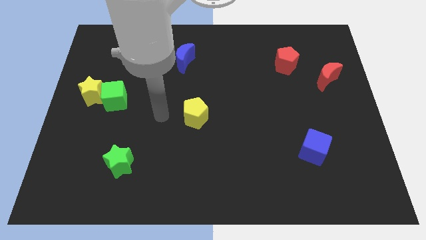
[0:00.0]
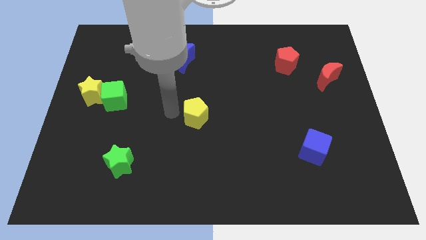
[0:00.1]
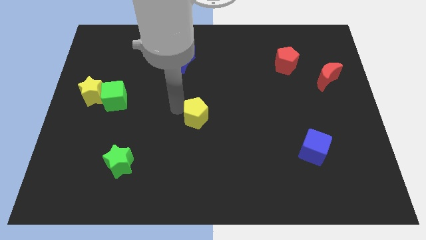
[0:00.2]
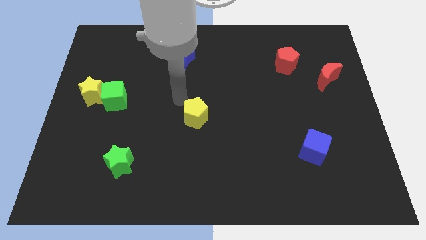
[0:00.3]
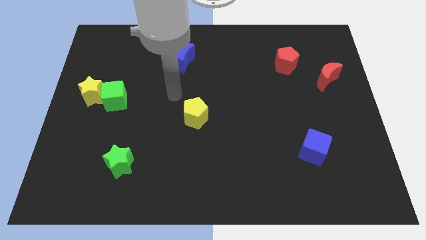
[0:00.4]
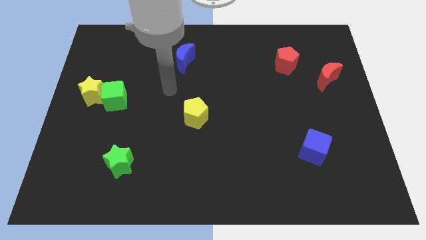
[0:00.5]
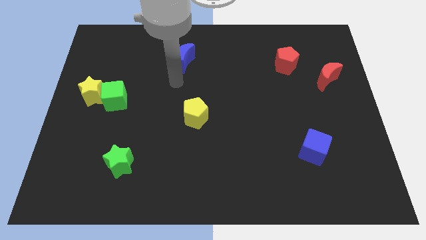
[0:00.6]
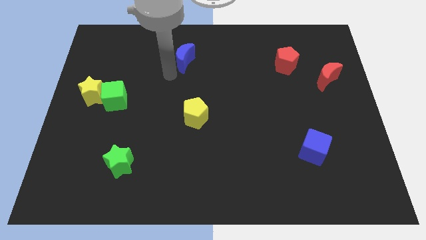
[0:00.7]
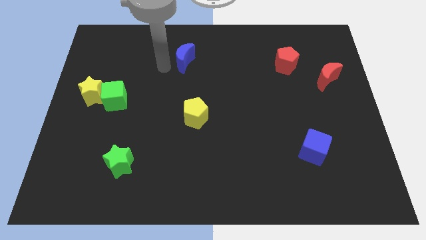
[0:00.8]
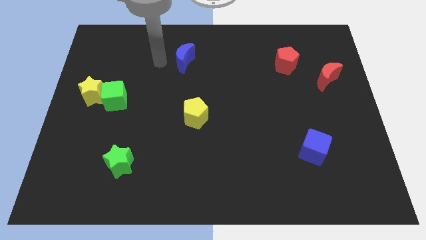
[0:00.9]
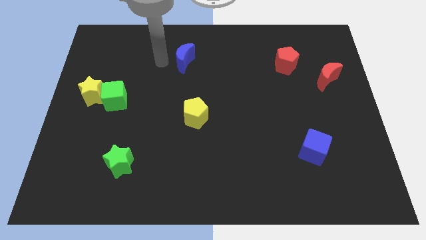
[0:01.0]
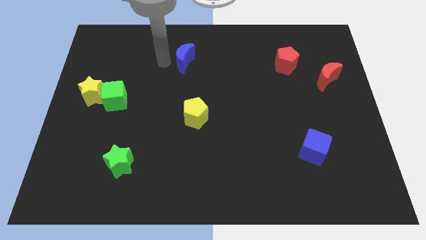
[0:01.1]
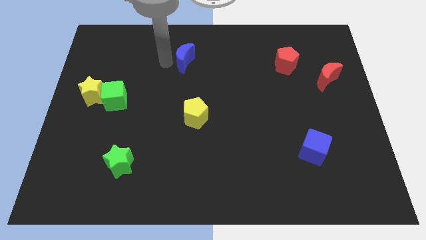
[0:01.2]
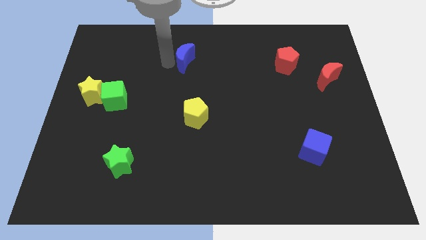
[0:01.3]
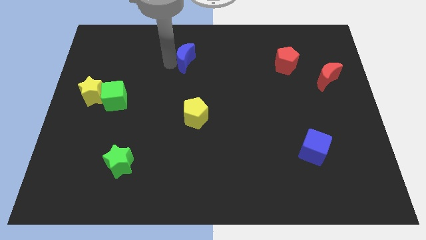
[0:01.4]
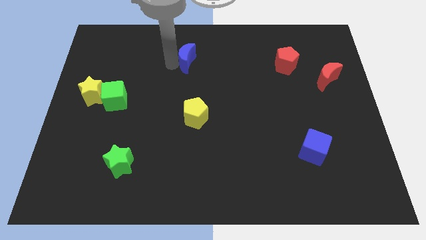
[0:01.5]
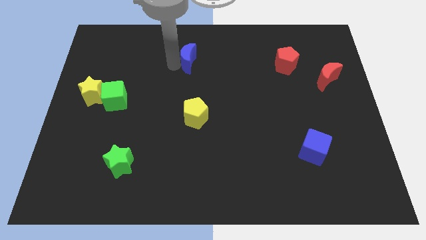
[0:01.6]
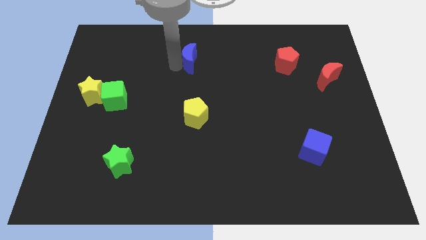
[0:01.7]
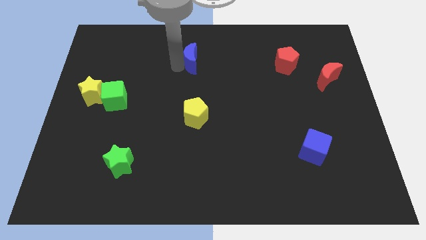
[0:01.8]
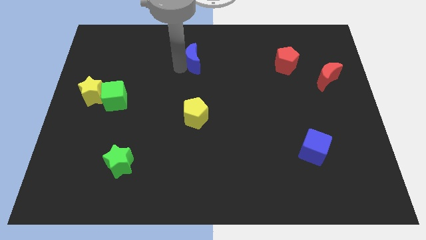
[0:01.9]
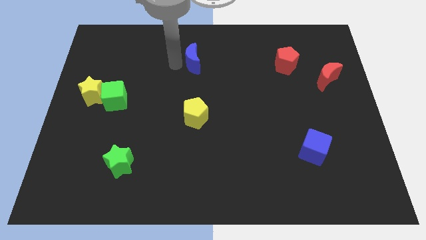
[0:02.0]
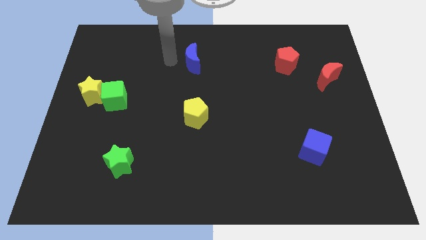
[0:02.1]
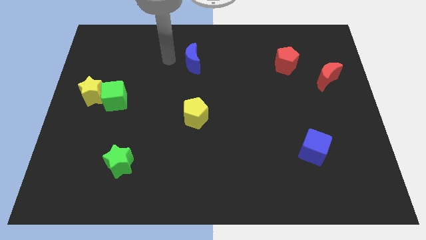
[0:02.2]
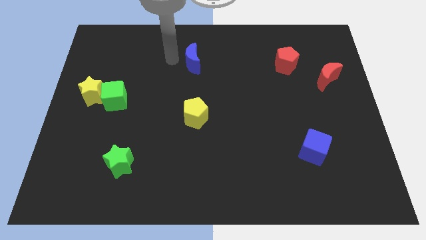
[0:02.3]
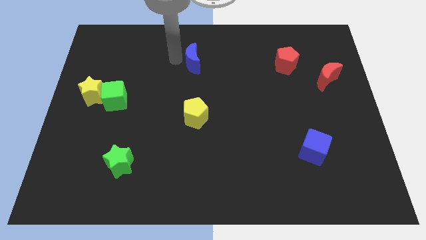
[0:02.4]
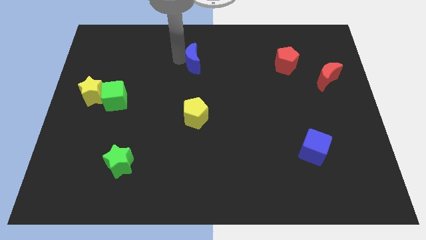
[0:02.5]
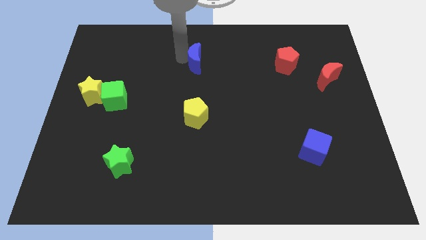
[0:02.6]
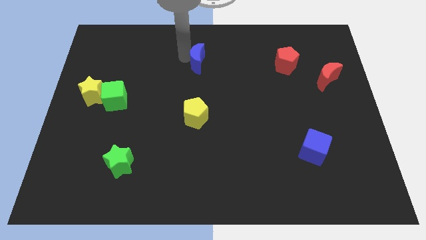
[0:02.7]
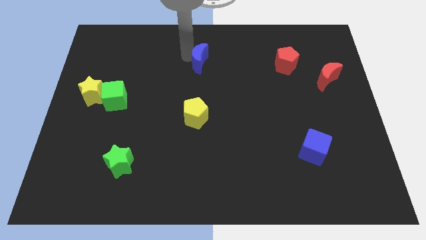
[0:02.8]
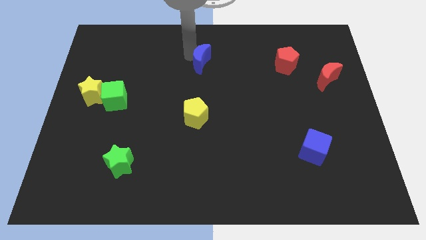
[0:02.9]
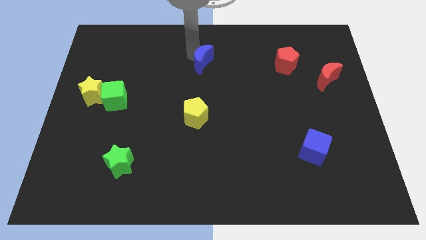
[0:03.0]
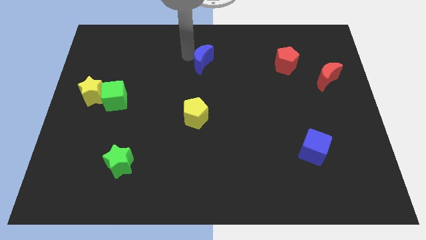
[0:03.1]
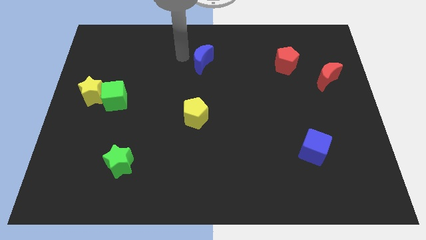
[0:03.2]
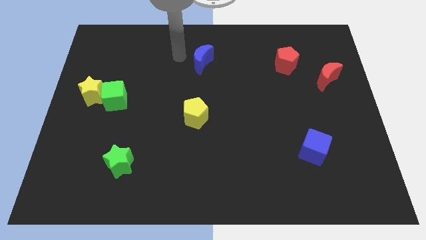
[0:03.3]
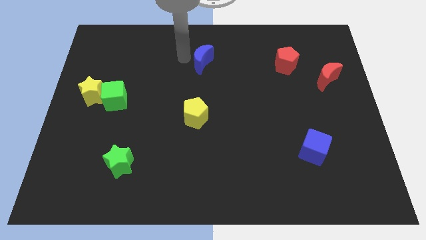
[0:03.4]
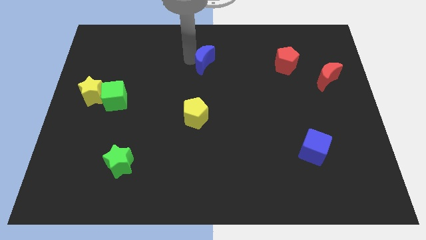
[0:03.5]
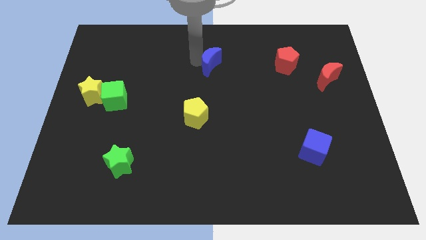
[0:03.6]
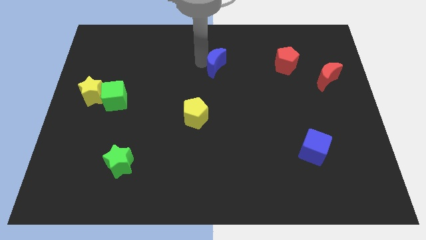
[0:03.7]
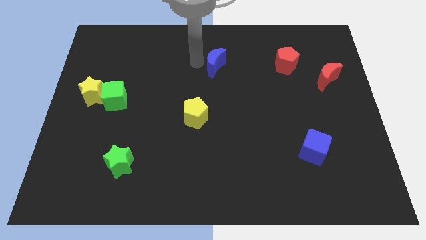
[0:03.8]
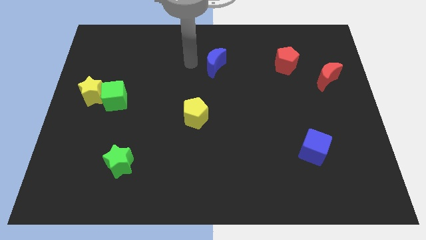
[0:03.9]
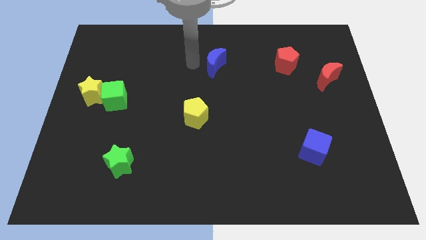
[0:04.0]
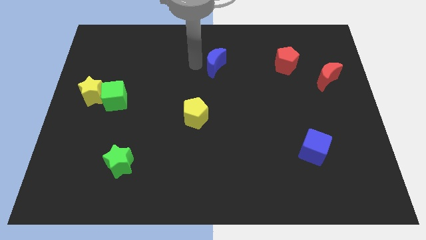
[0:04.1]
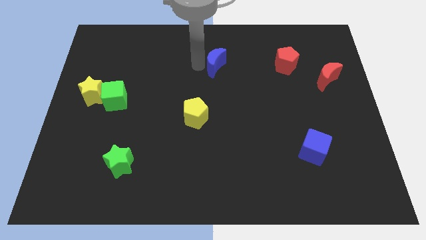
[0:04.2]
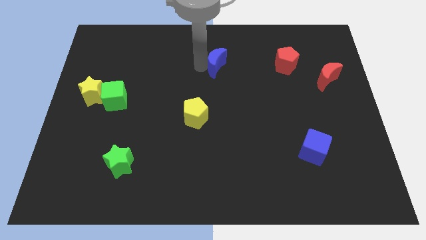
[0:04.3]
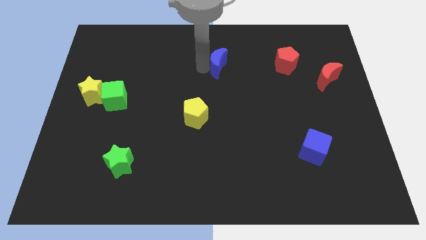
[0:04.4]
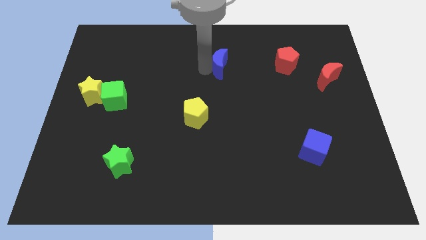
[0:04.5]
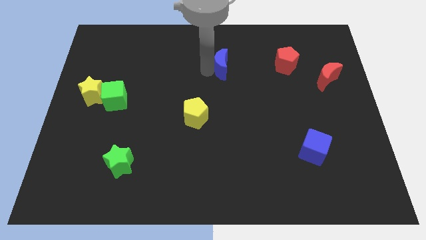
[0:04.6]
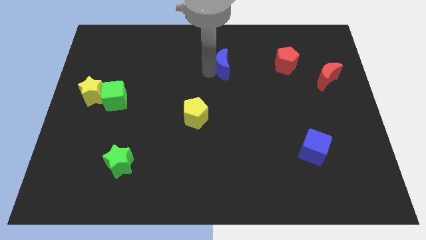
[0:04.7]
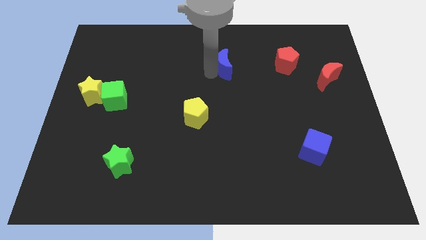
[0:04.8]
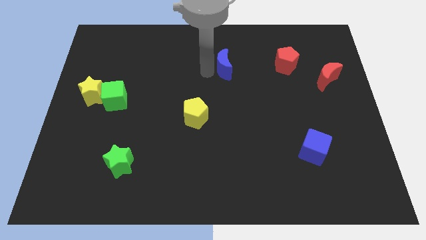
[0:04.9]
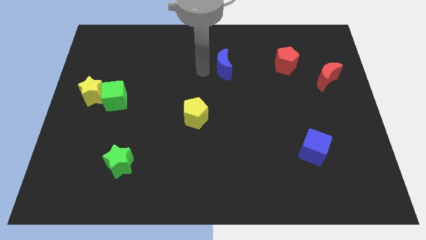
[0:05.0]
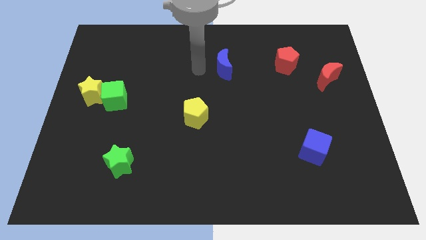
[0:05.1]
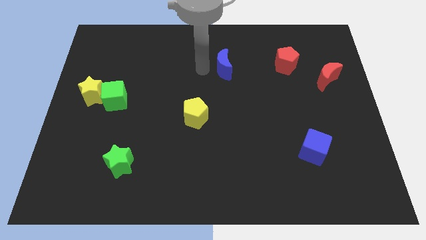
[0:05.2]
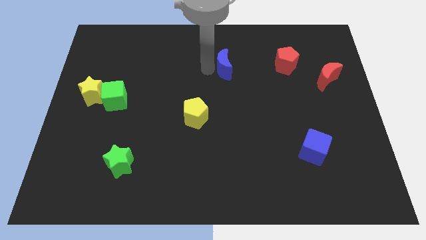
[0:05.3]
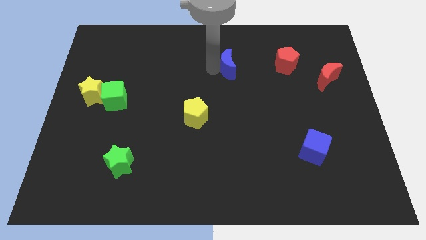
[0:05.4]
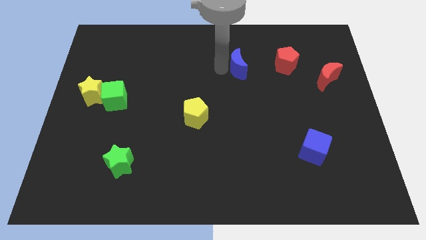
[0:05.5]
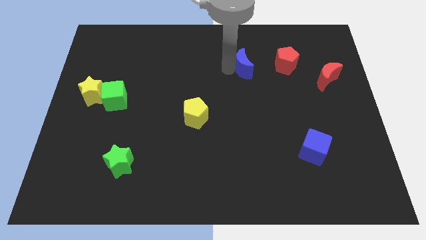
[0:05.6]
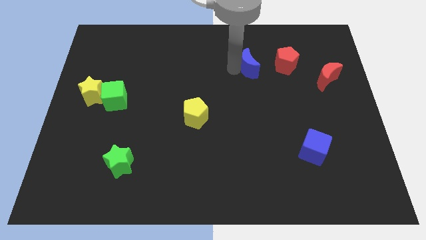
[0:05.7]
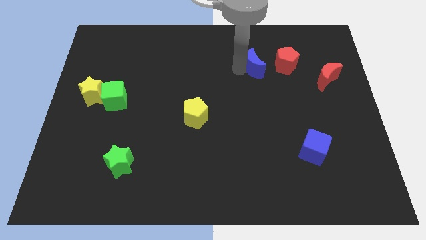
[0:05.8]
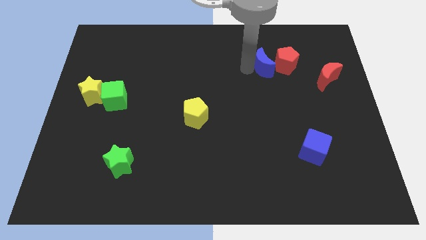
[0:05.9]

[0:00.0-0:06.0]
slide the blue moon close to the red pentagon
